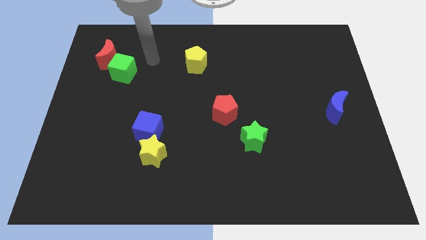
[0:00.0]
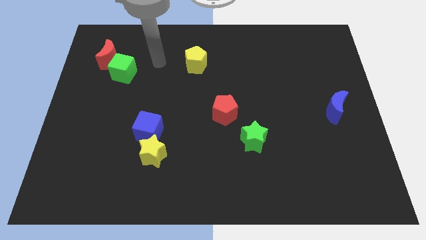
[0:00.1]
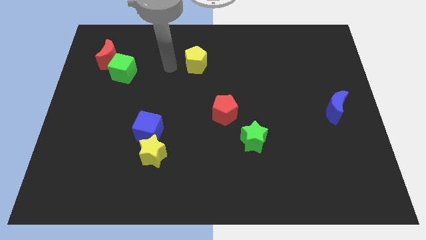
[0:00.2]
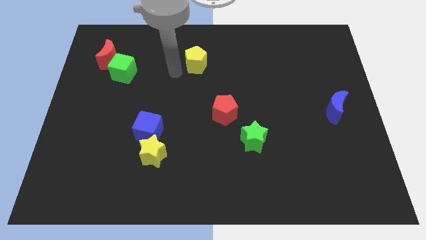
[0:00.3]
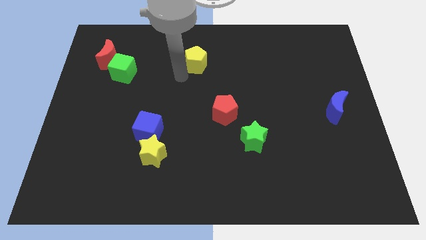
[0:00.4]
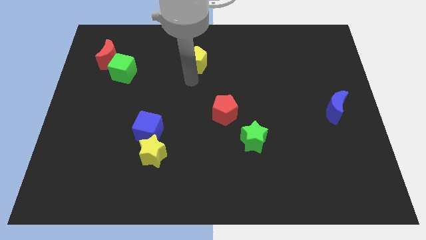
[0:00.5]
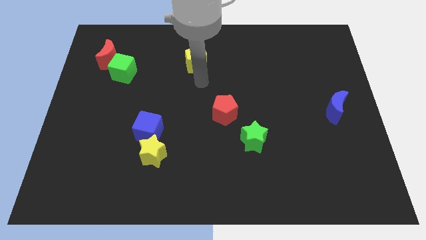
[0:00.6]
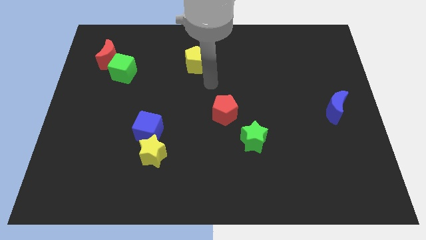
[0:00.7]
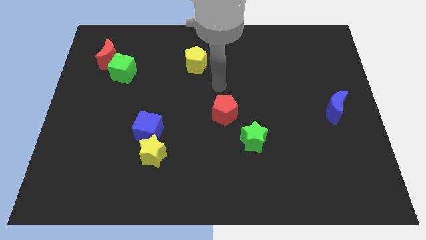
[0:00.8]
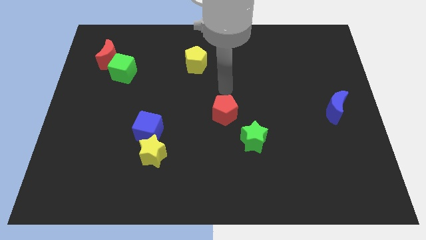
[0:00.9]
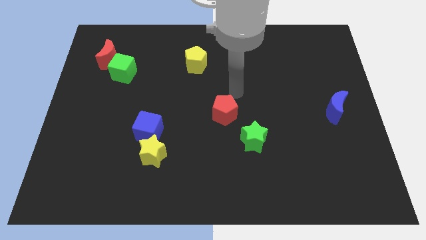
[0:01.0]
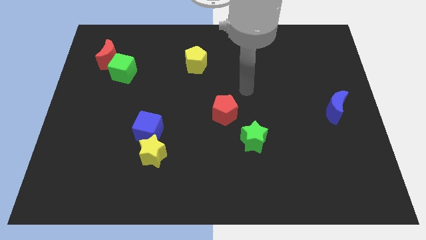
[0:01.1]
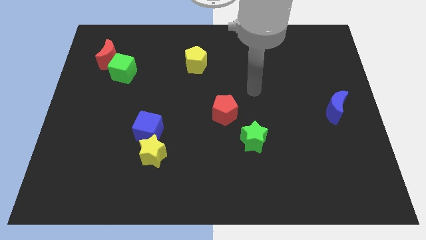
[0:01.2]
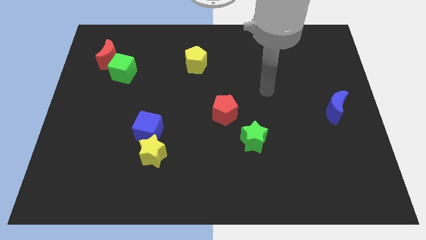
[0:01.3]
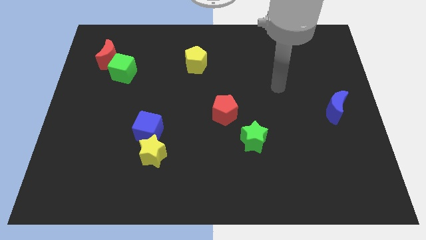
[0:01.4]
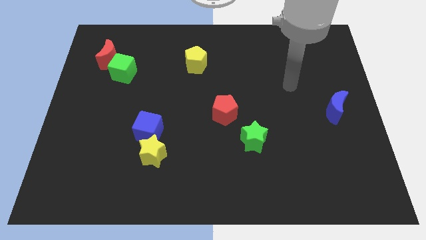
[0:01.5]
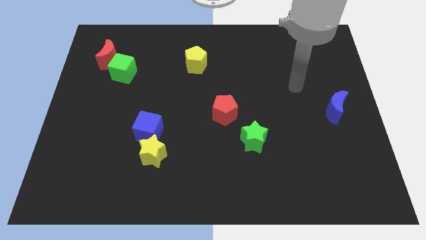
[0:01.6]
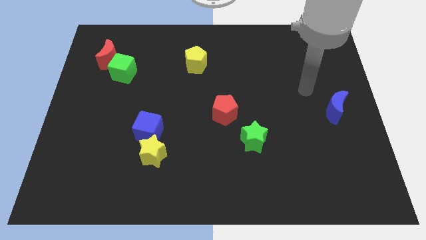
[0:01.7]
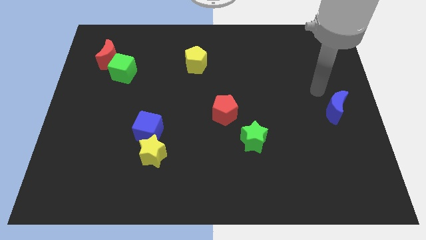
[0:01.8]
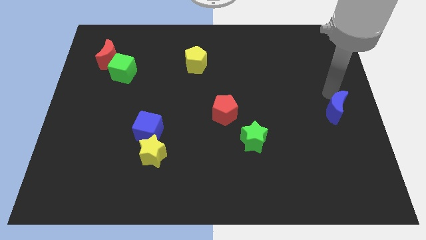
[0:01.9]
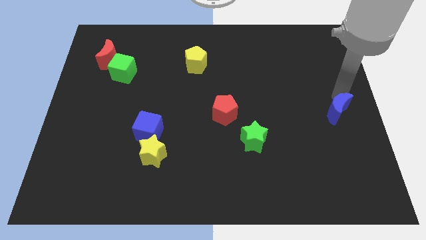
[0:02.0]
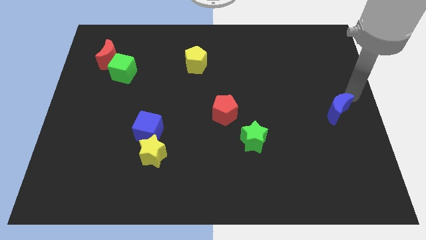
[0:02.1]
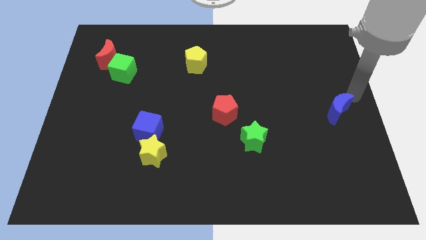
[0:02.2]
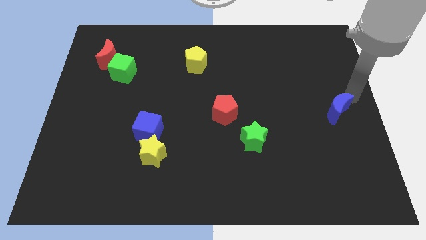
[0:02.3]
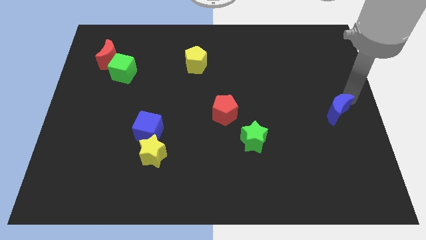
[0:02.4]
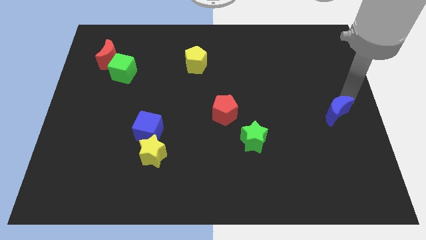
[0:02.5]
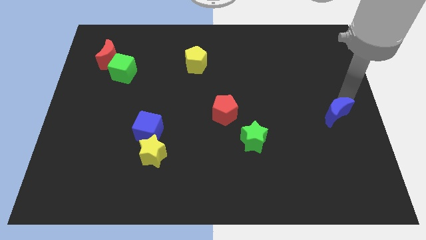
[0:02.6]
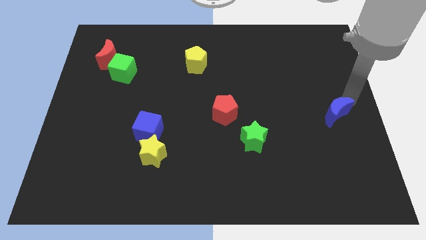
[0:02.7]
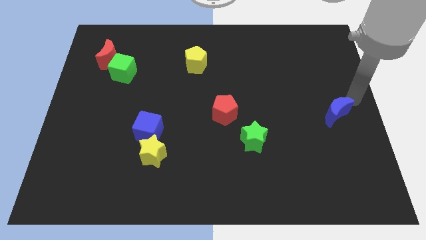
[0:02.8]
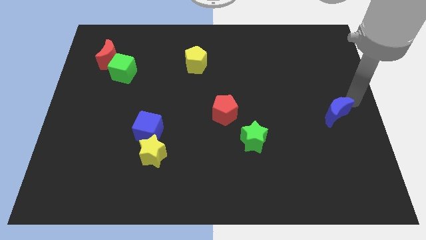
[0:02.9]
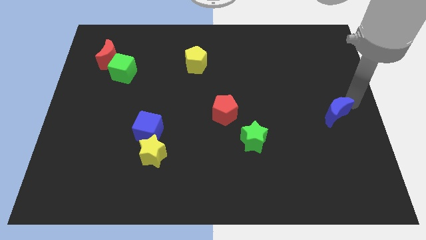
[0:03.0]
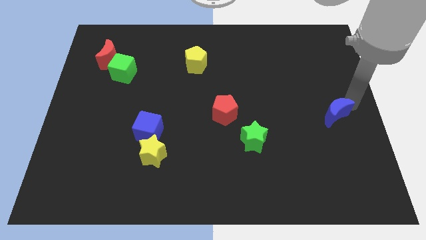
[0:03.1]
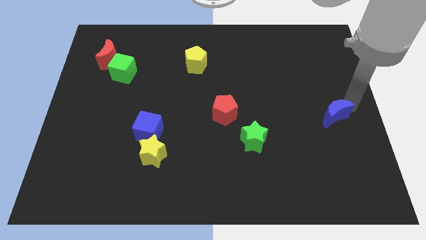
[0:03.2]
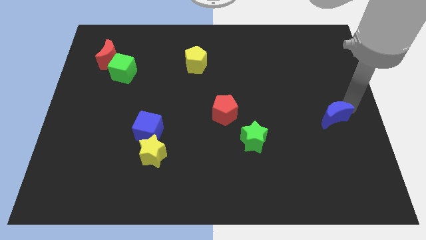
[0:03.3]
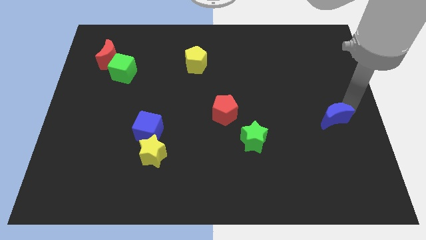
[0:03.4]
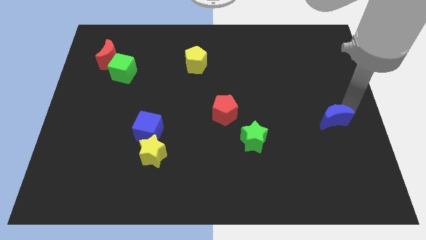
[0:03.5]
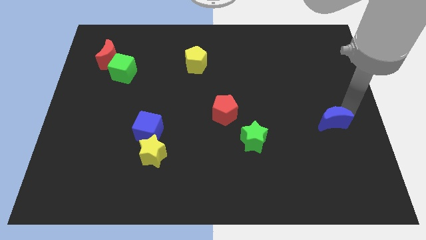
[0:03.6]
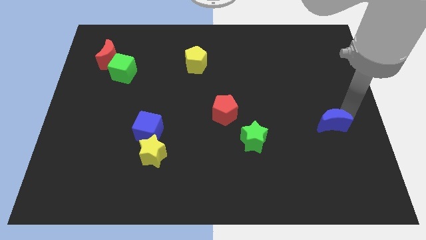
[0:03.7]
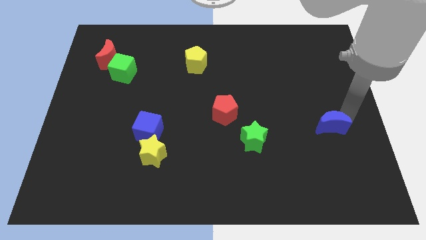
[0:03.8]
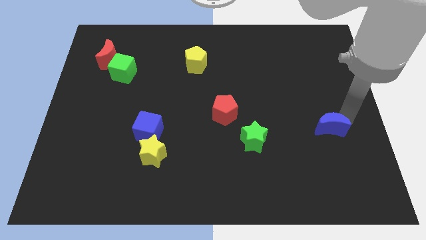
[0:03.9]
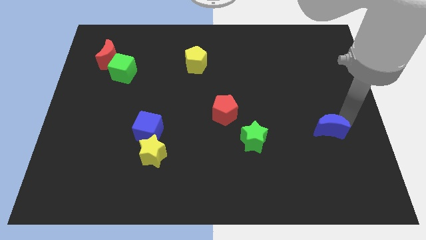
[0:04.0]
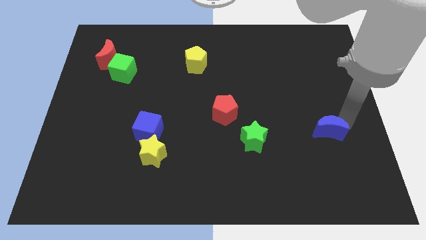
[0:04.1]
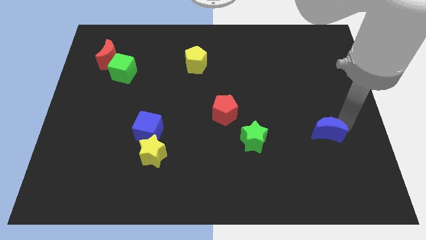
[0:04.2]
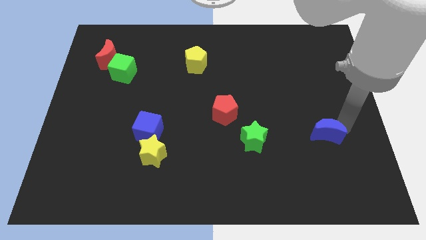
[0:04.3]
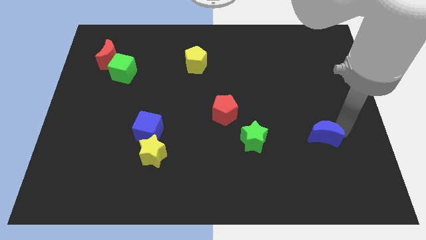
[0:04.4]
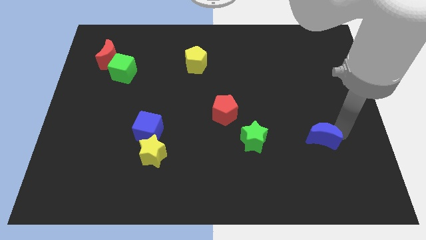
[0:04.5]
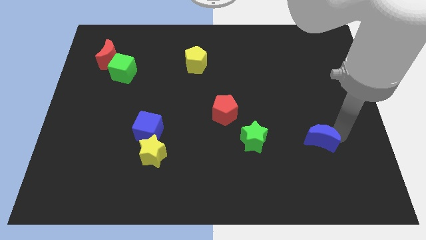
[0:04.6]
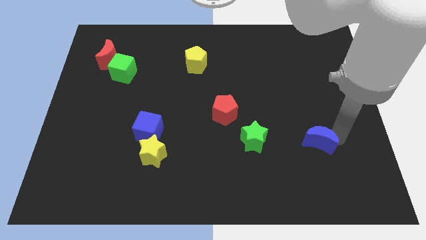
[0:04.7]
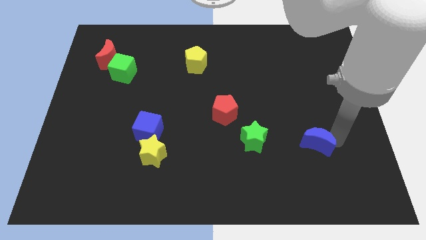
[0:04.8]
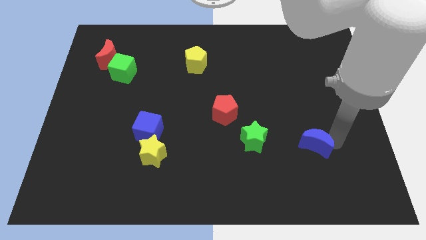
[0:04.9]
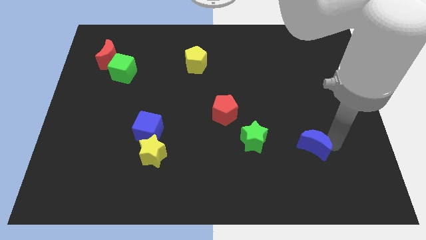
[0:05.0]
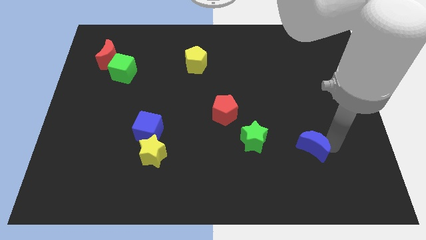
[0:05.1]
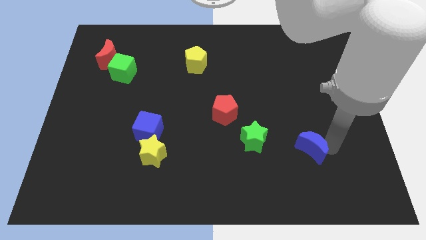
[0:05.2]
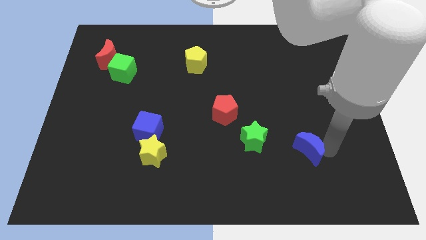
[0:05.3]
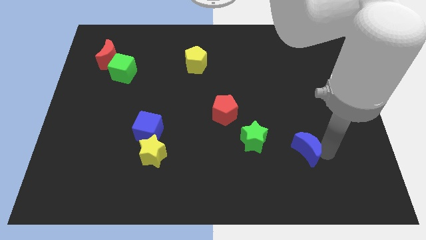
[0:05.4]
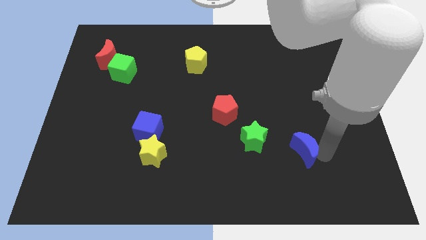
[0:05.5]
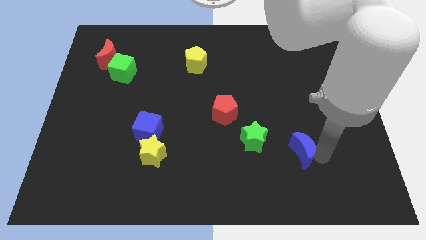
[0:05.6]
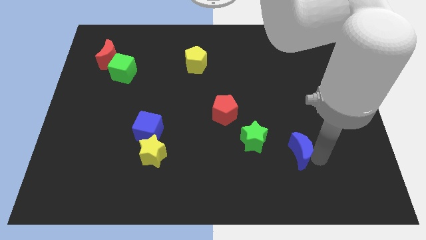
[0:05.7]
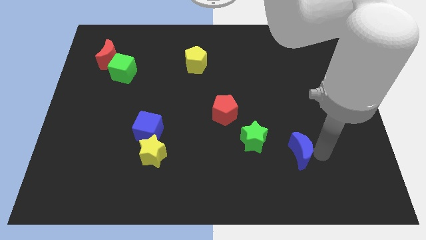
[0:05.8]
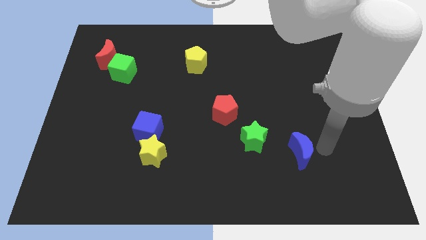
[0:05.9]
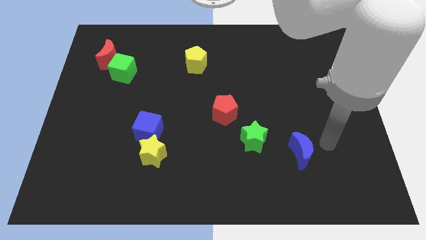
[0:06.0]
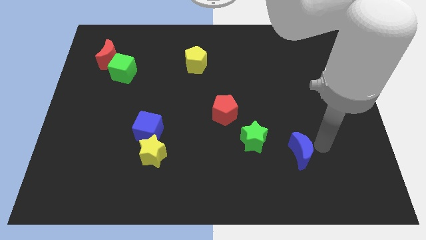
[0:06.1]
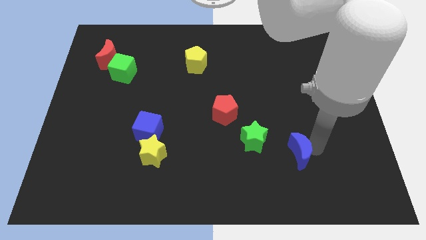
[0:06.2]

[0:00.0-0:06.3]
put the blue moon to the bottom right of the green star

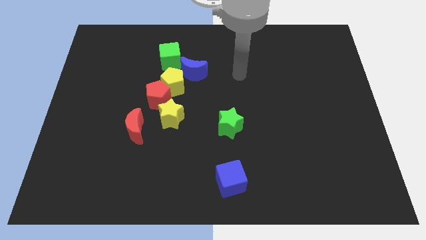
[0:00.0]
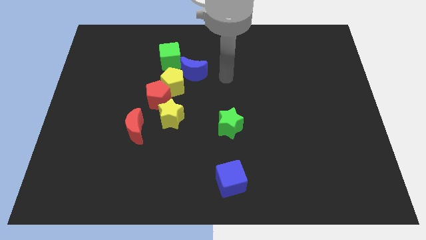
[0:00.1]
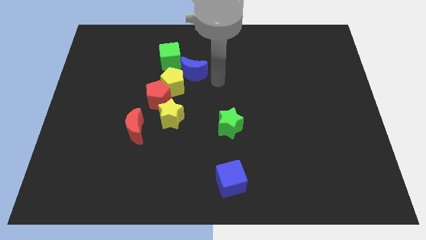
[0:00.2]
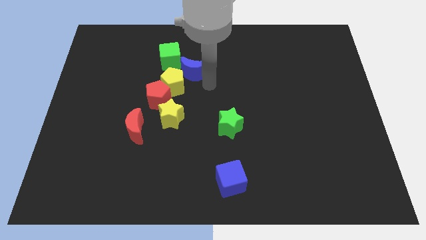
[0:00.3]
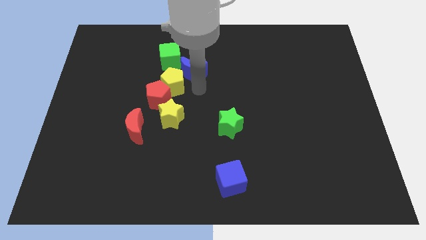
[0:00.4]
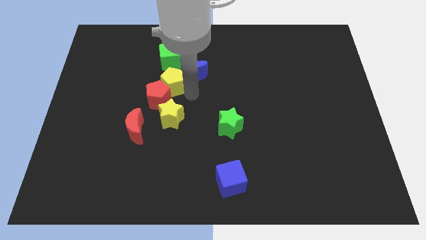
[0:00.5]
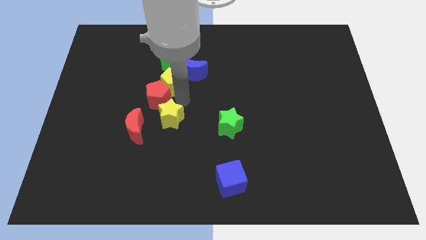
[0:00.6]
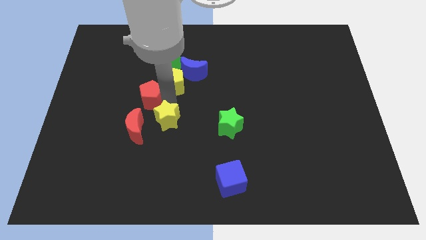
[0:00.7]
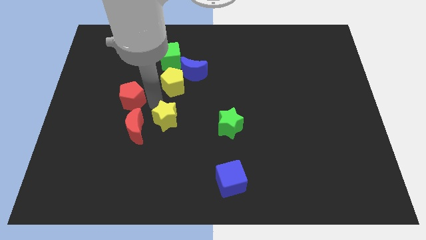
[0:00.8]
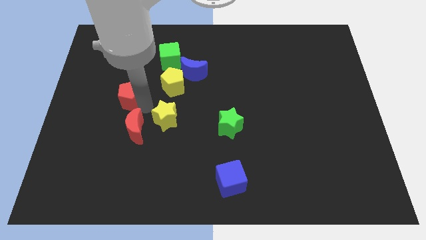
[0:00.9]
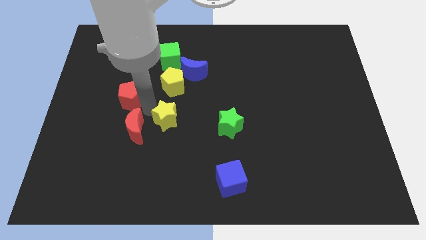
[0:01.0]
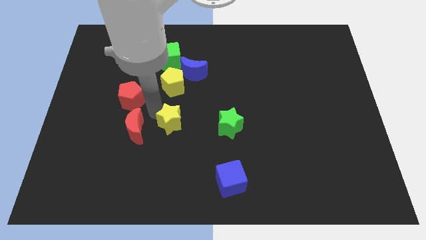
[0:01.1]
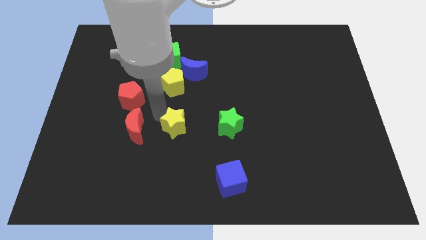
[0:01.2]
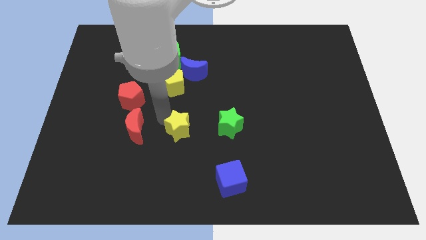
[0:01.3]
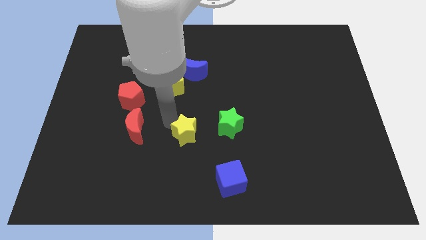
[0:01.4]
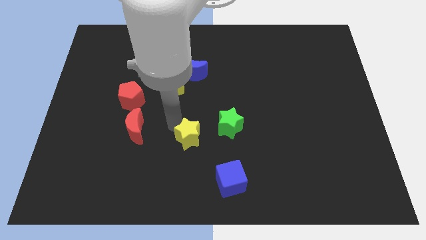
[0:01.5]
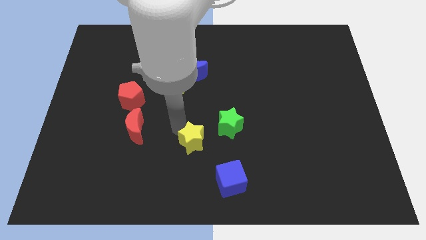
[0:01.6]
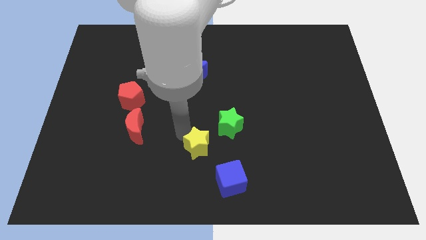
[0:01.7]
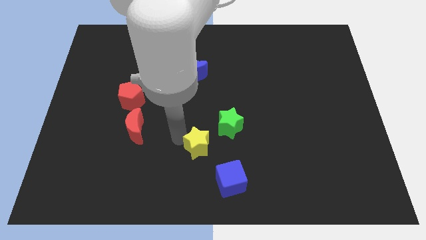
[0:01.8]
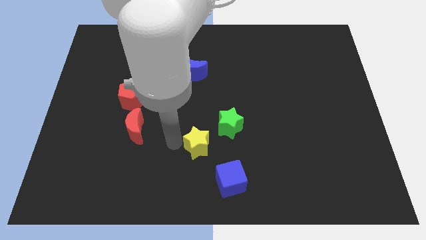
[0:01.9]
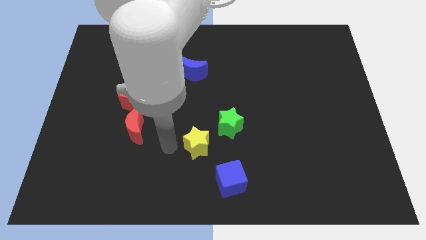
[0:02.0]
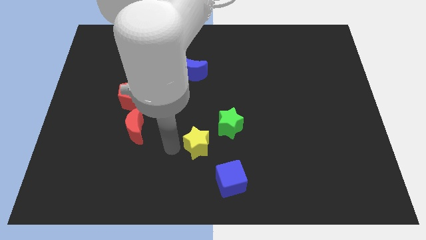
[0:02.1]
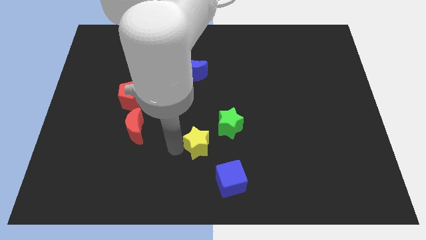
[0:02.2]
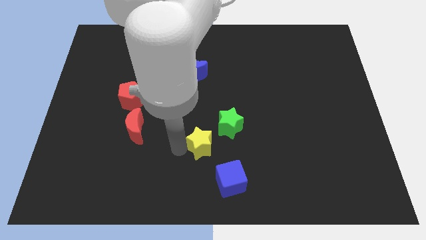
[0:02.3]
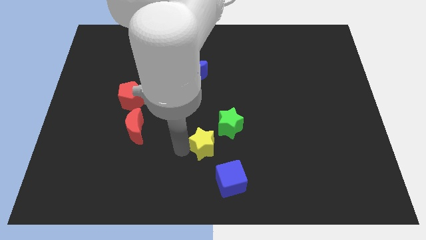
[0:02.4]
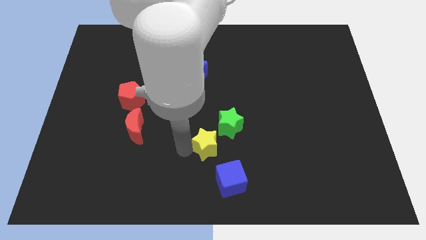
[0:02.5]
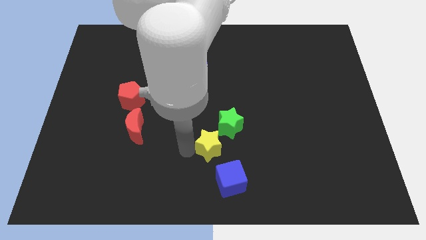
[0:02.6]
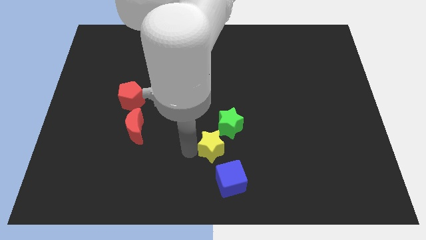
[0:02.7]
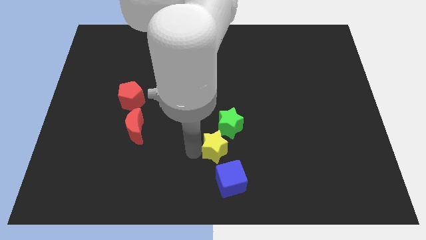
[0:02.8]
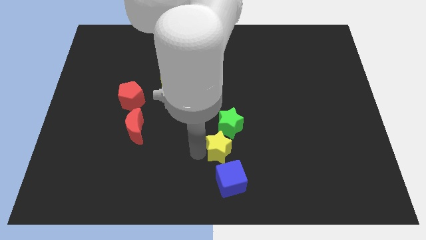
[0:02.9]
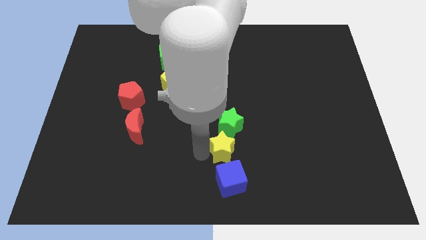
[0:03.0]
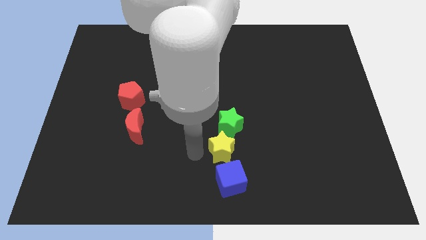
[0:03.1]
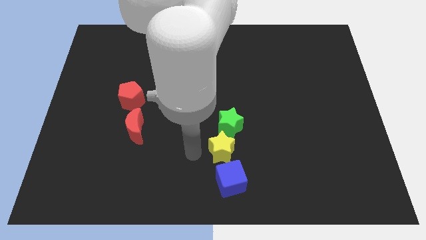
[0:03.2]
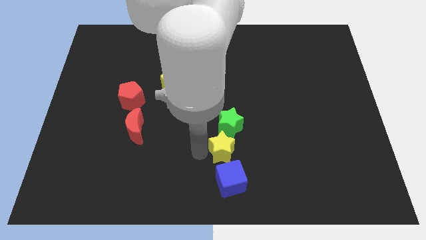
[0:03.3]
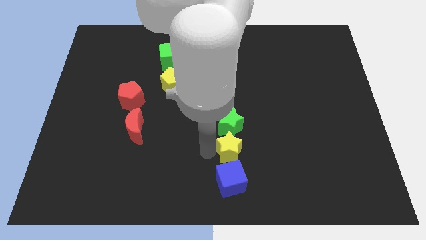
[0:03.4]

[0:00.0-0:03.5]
put the yellow star diagonally down and to the right of the green star
